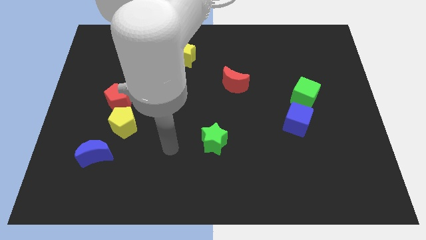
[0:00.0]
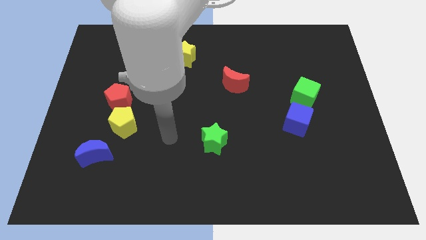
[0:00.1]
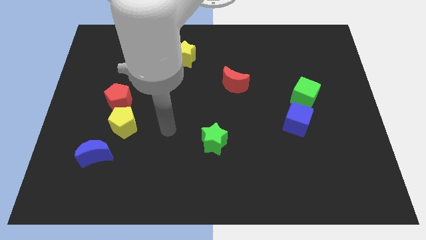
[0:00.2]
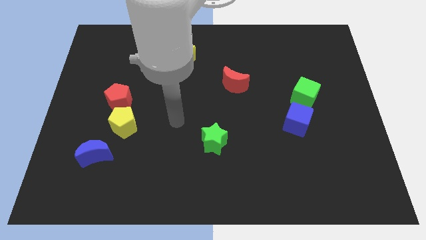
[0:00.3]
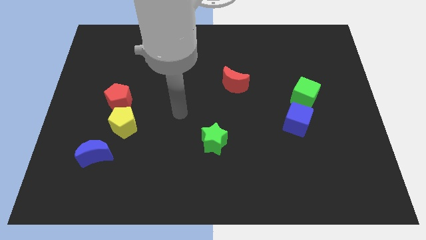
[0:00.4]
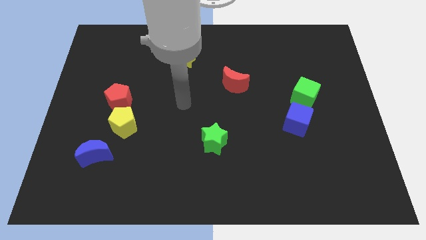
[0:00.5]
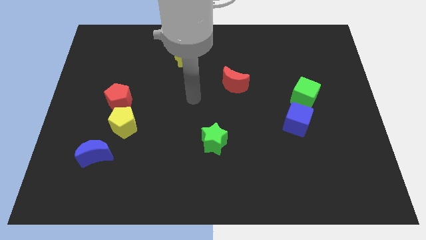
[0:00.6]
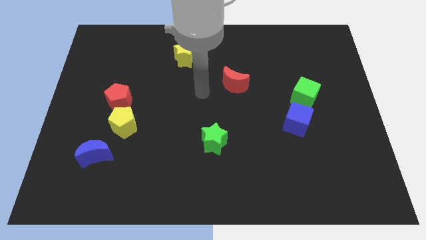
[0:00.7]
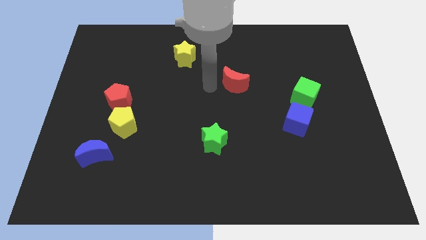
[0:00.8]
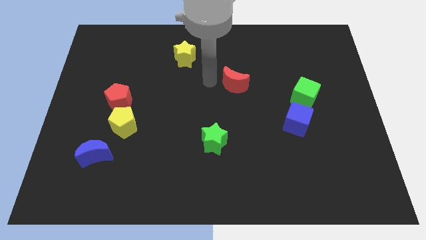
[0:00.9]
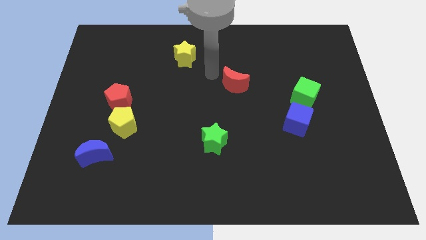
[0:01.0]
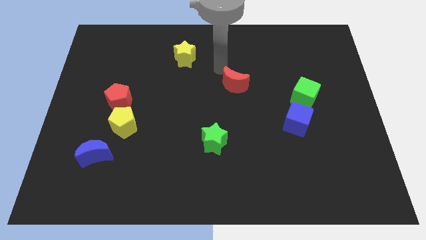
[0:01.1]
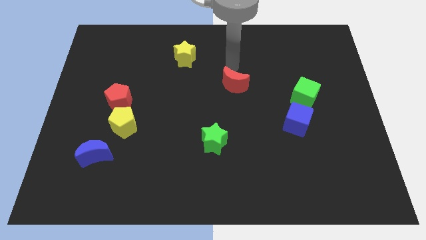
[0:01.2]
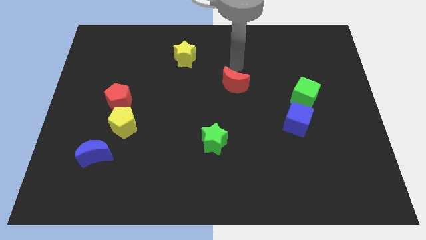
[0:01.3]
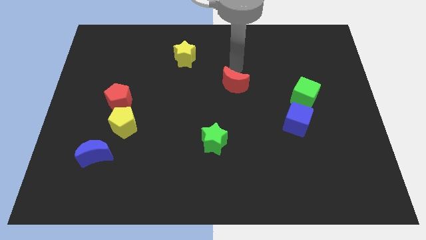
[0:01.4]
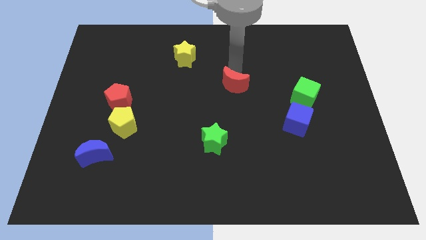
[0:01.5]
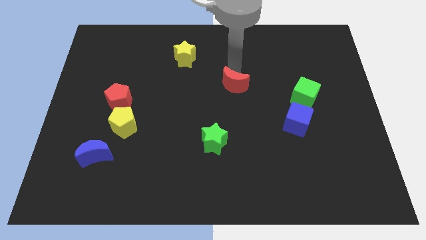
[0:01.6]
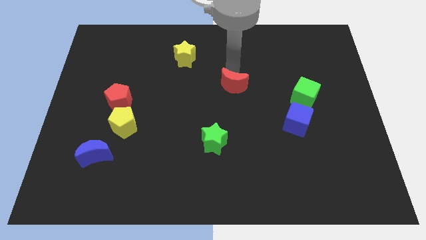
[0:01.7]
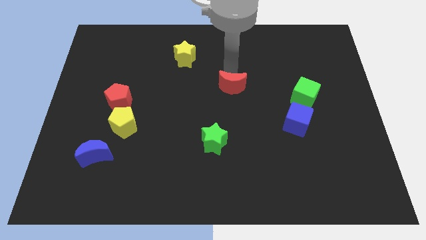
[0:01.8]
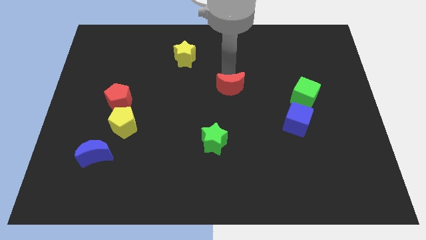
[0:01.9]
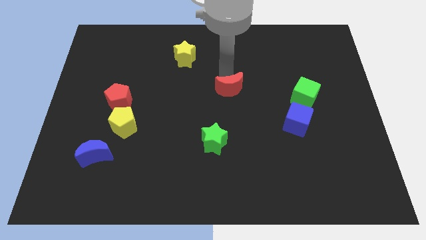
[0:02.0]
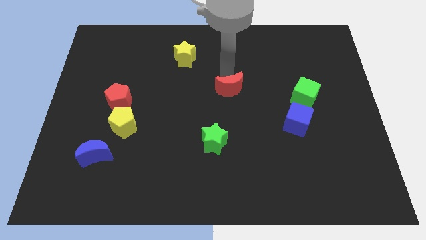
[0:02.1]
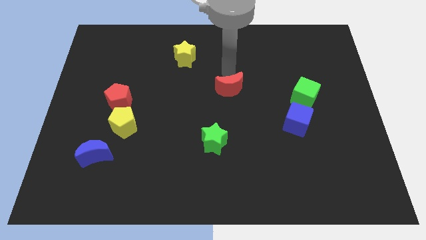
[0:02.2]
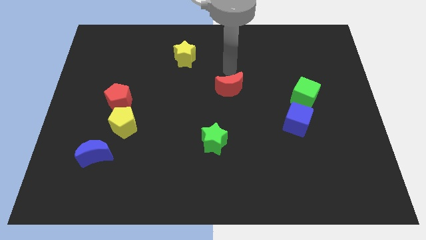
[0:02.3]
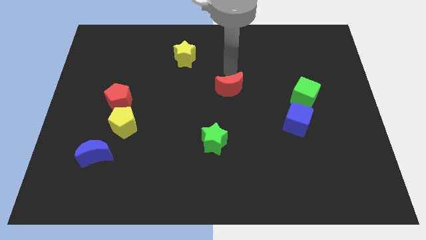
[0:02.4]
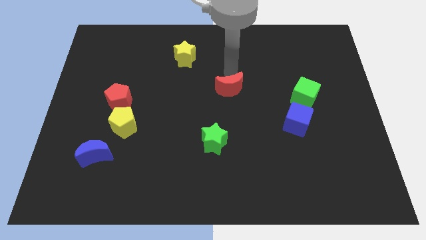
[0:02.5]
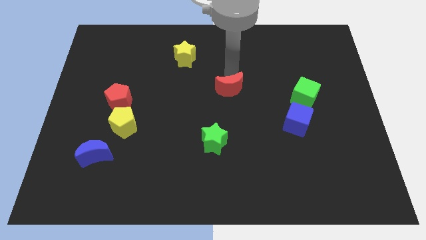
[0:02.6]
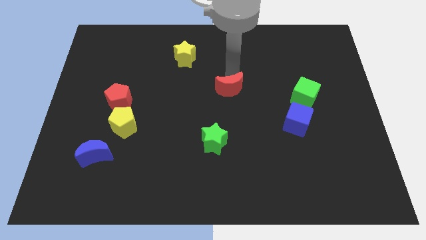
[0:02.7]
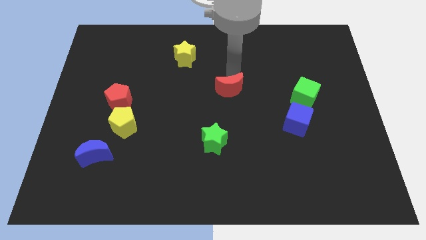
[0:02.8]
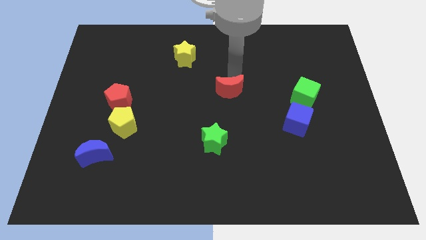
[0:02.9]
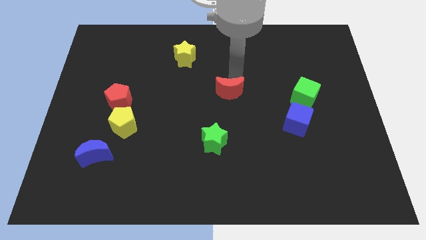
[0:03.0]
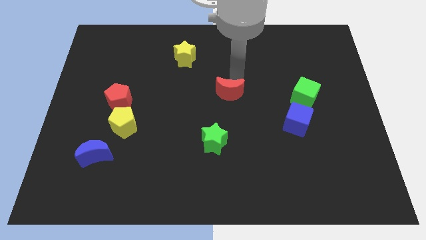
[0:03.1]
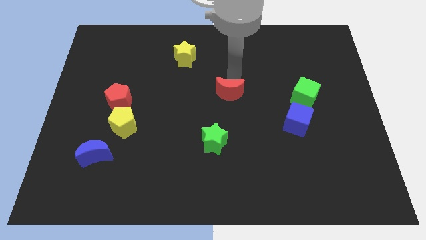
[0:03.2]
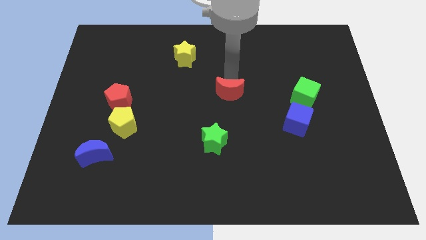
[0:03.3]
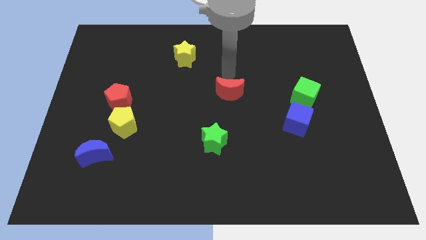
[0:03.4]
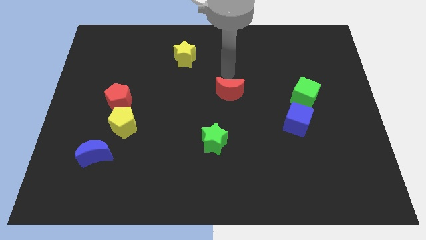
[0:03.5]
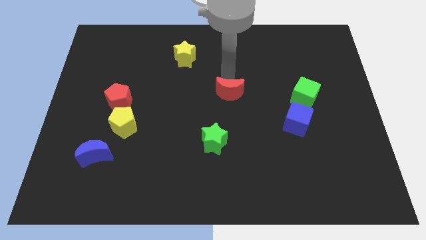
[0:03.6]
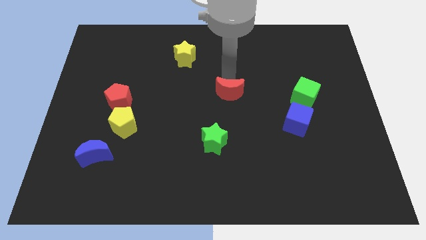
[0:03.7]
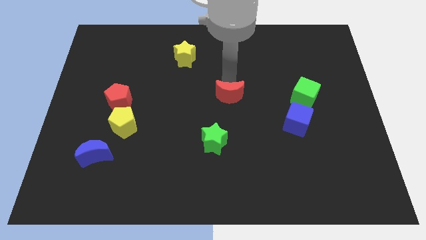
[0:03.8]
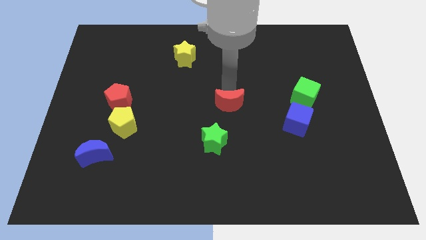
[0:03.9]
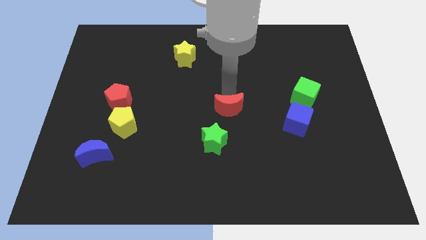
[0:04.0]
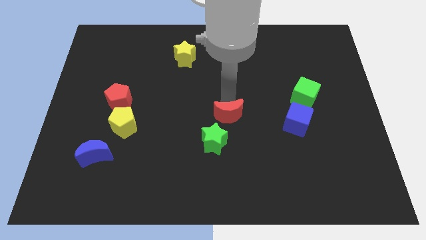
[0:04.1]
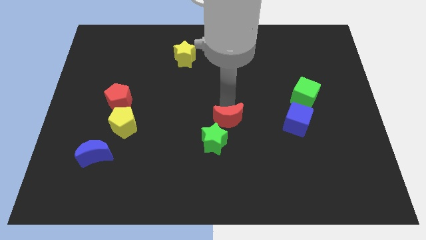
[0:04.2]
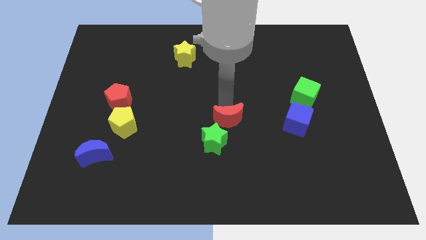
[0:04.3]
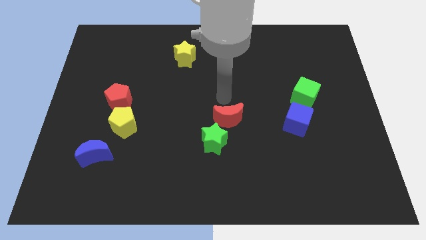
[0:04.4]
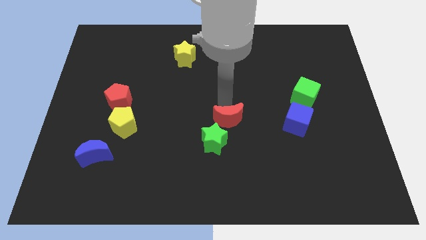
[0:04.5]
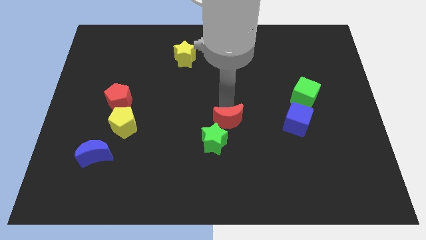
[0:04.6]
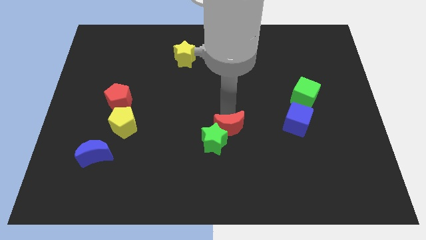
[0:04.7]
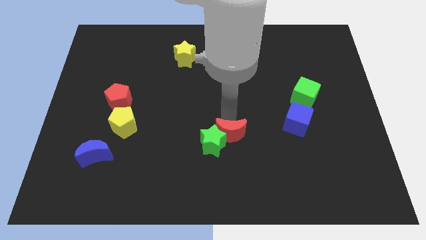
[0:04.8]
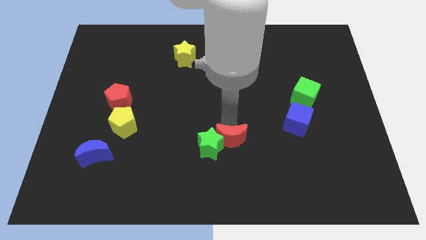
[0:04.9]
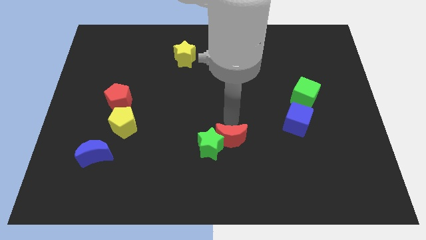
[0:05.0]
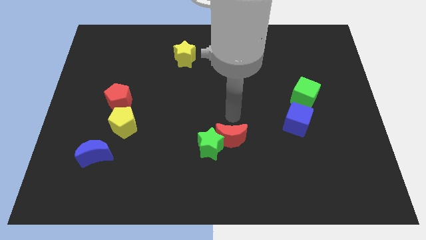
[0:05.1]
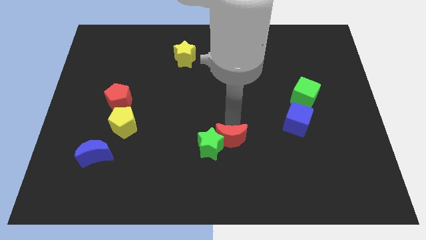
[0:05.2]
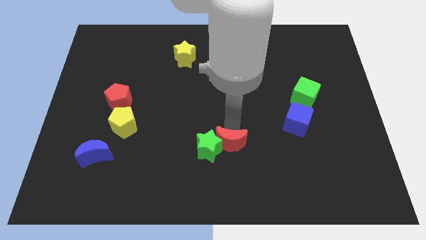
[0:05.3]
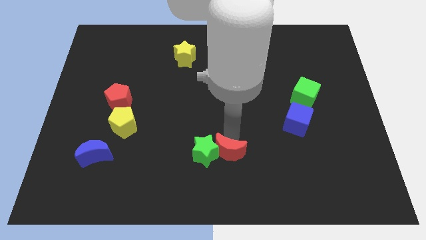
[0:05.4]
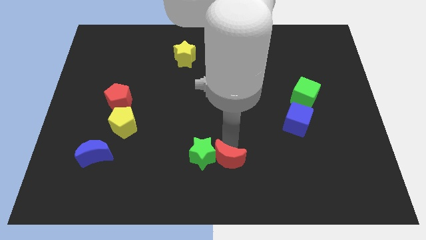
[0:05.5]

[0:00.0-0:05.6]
move the red moon to the bottom side

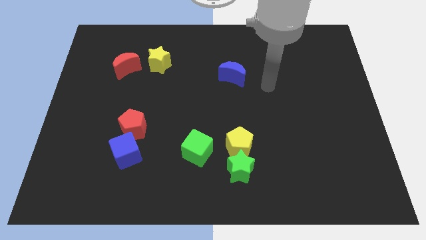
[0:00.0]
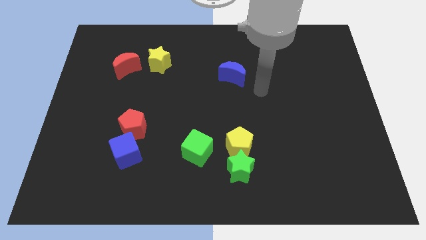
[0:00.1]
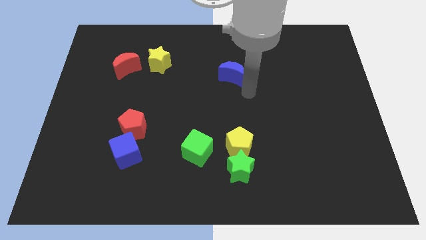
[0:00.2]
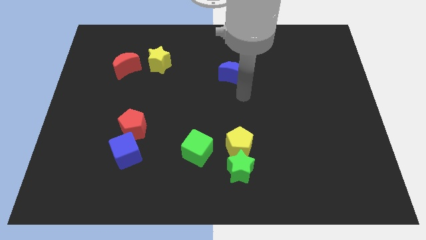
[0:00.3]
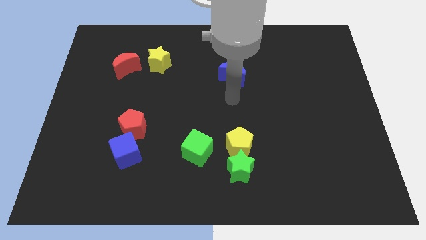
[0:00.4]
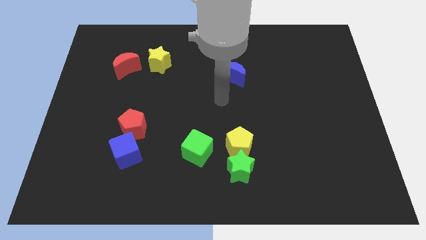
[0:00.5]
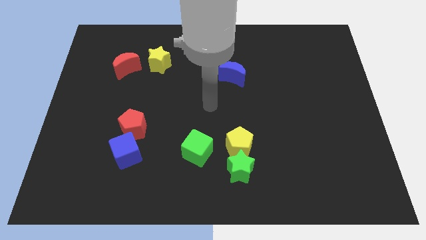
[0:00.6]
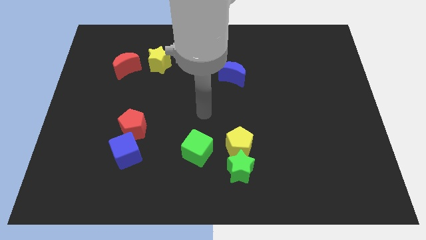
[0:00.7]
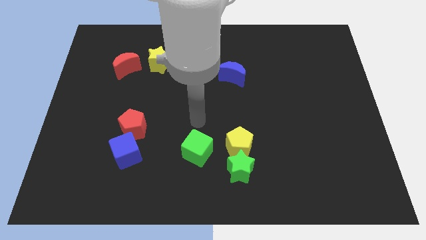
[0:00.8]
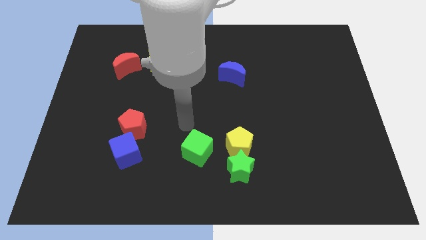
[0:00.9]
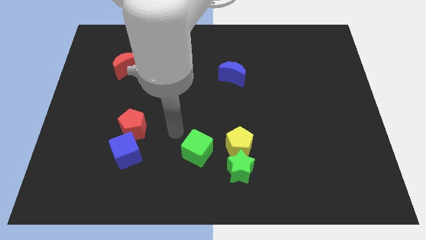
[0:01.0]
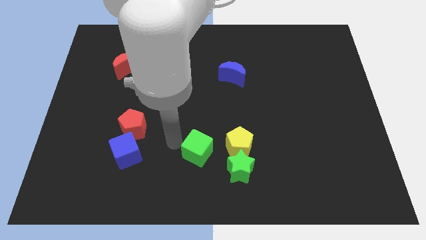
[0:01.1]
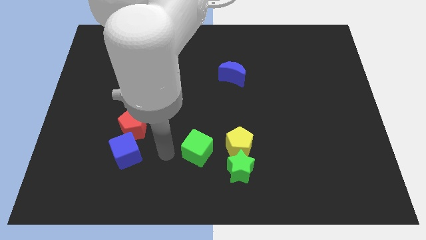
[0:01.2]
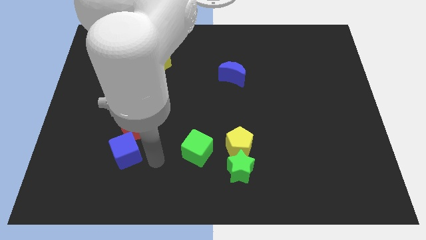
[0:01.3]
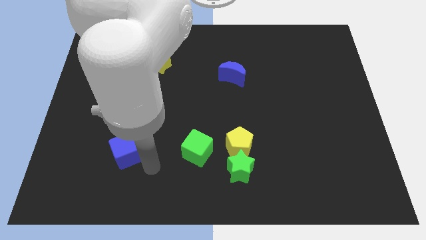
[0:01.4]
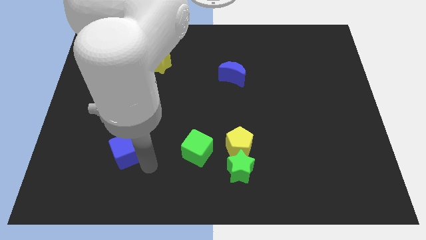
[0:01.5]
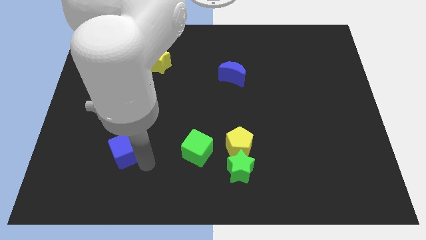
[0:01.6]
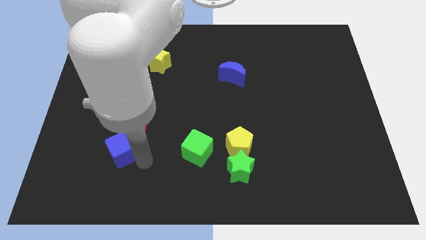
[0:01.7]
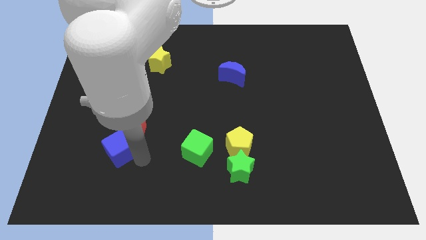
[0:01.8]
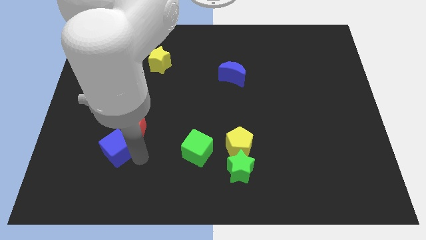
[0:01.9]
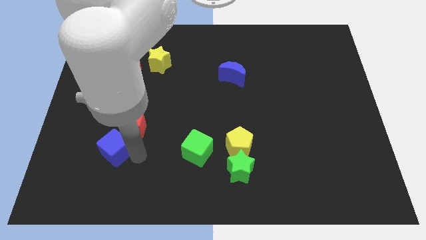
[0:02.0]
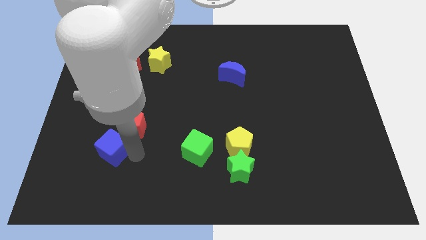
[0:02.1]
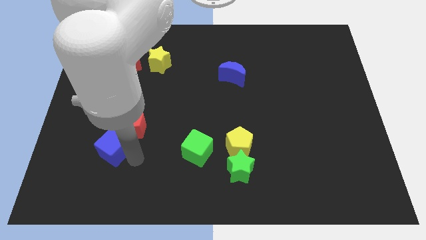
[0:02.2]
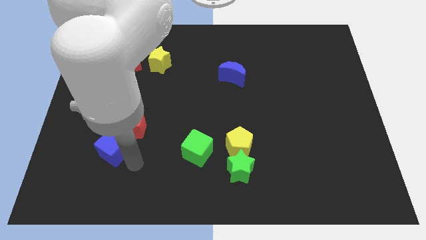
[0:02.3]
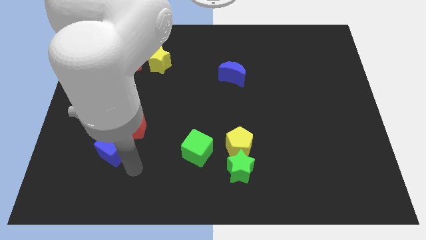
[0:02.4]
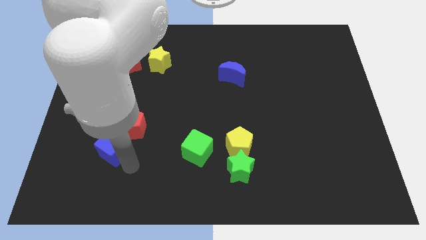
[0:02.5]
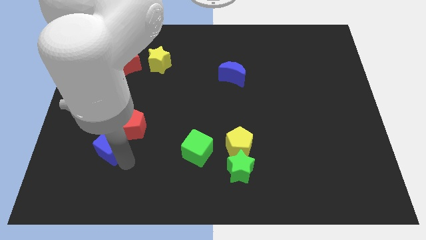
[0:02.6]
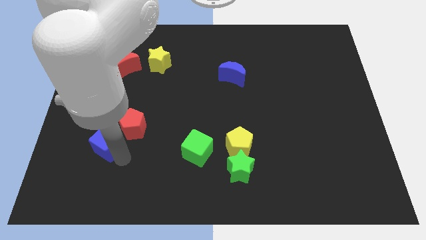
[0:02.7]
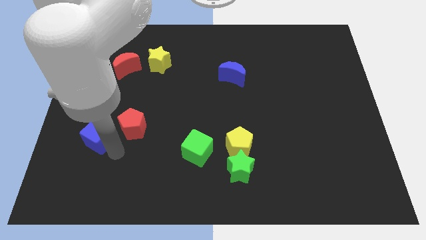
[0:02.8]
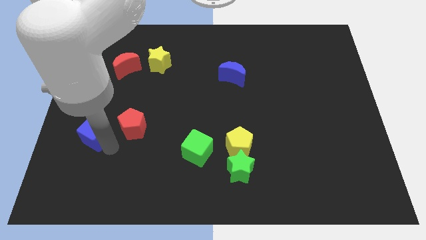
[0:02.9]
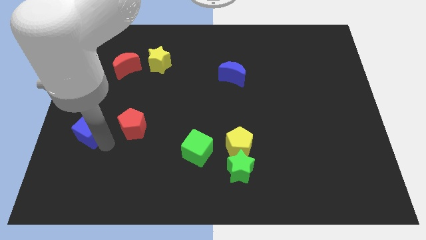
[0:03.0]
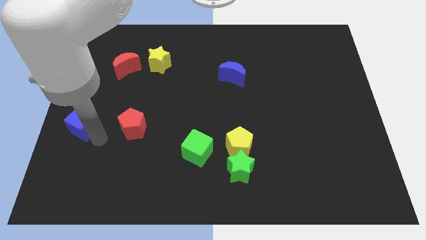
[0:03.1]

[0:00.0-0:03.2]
put the blue cube to the left side of the board
